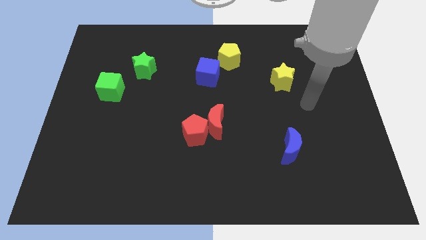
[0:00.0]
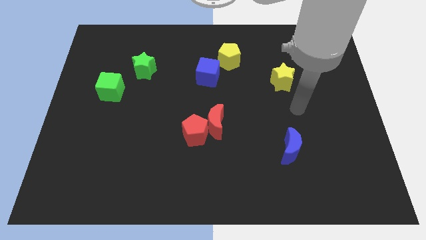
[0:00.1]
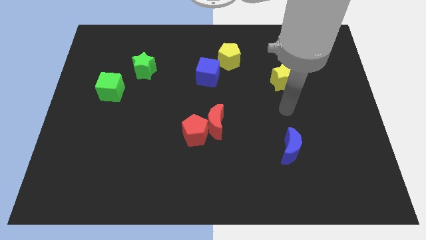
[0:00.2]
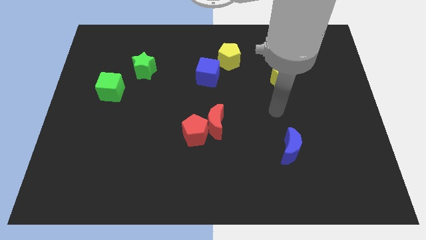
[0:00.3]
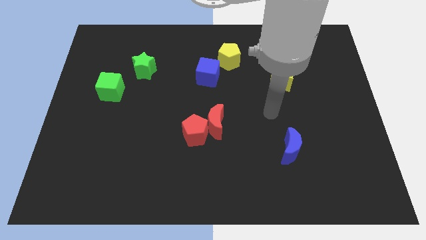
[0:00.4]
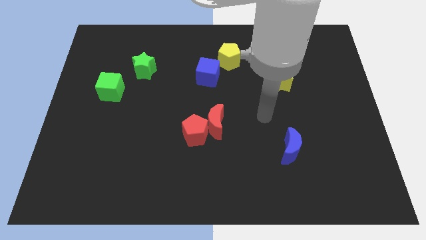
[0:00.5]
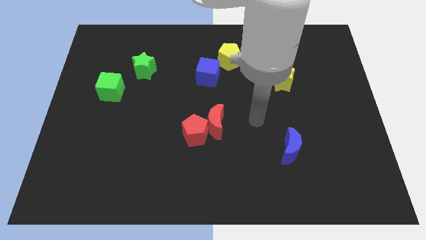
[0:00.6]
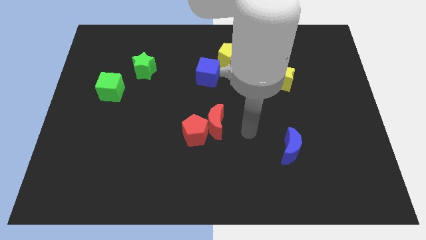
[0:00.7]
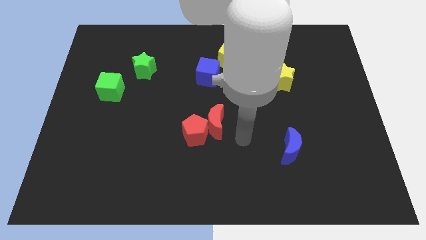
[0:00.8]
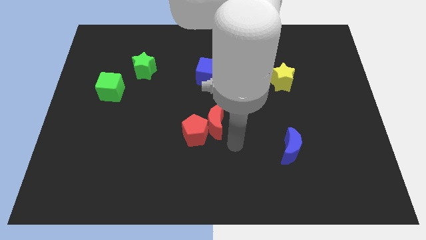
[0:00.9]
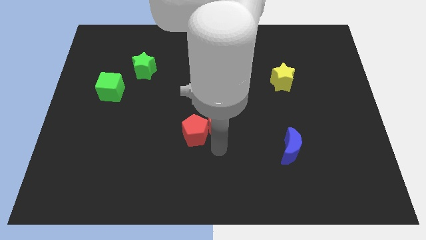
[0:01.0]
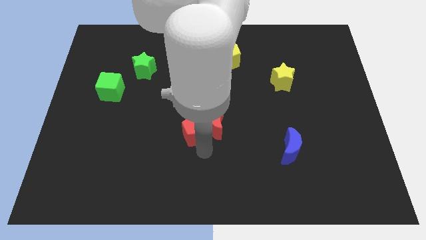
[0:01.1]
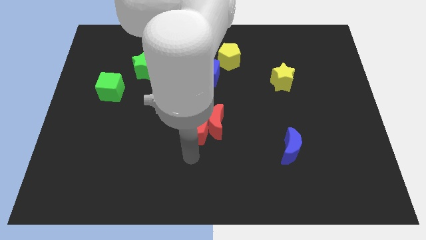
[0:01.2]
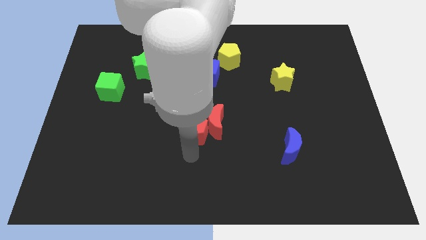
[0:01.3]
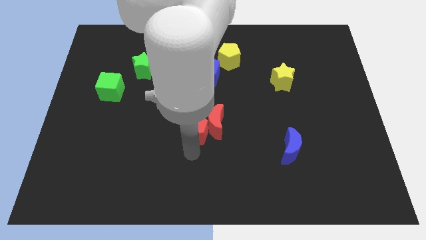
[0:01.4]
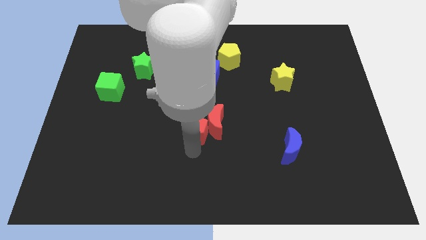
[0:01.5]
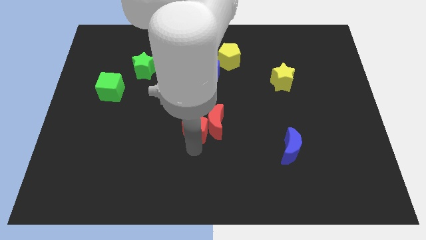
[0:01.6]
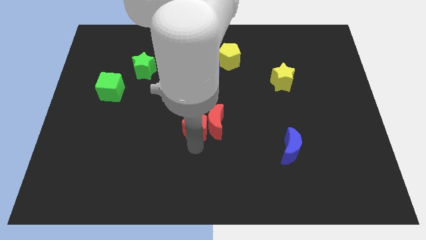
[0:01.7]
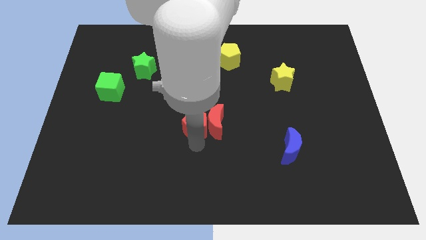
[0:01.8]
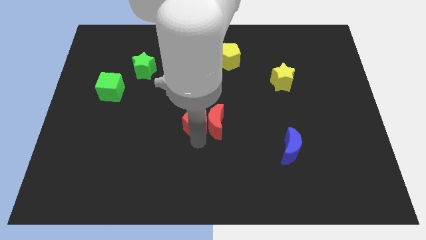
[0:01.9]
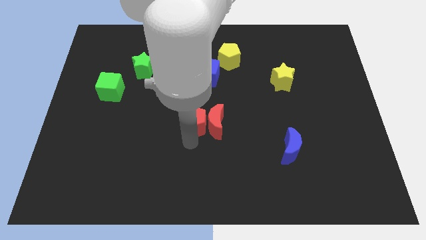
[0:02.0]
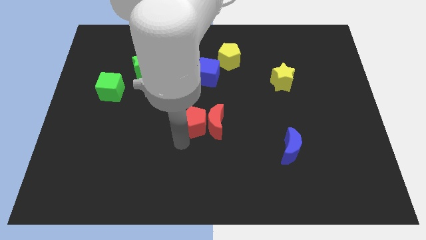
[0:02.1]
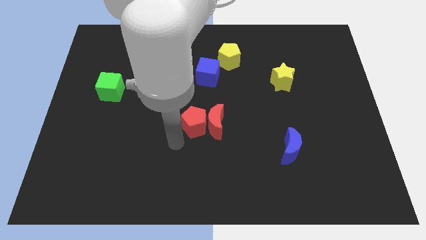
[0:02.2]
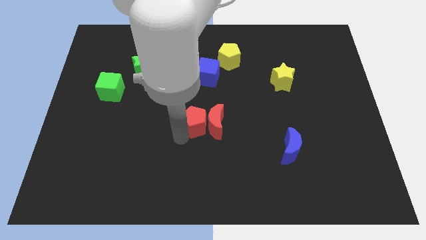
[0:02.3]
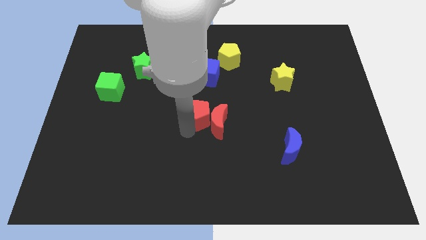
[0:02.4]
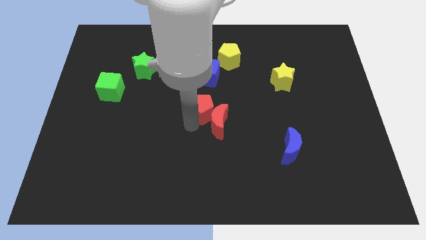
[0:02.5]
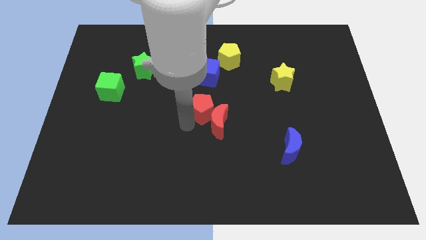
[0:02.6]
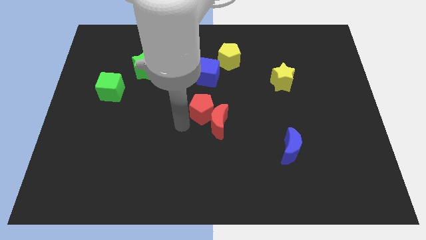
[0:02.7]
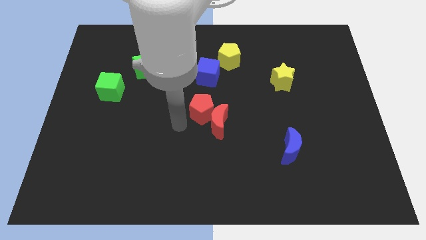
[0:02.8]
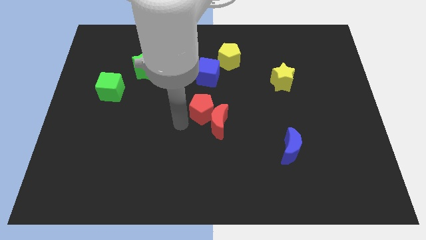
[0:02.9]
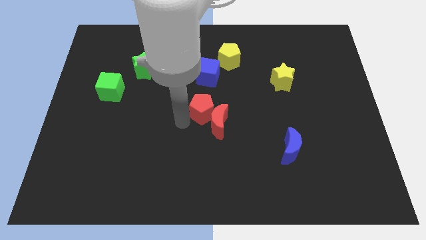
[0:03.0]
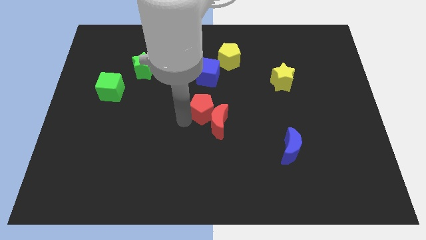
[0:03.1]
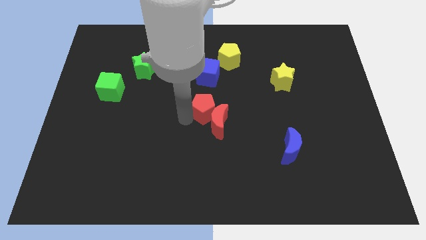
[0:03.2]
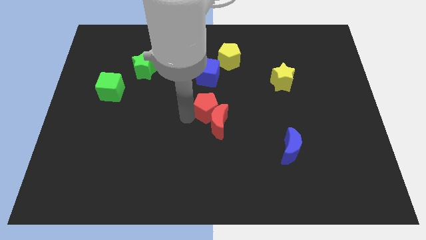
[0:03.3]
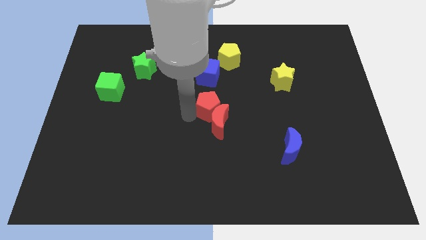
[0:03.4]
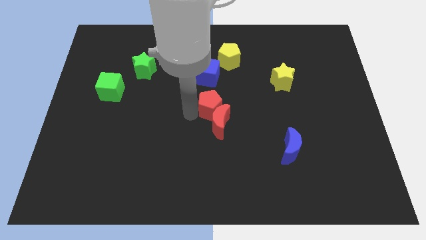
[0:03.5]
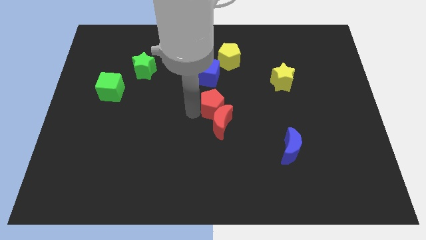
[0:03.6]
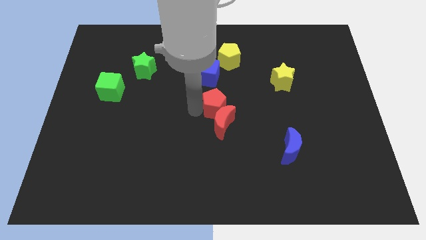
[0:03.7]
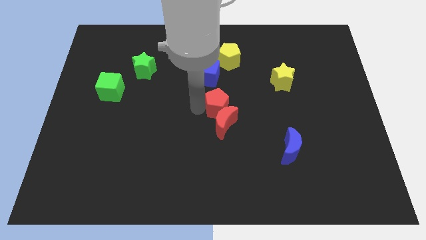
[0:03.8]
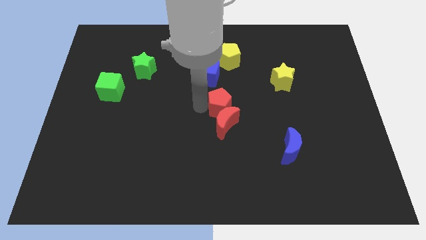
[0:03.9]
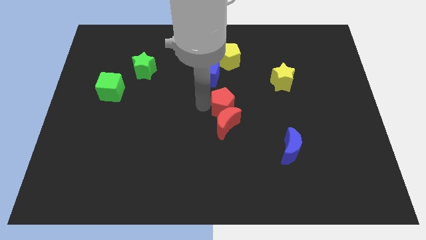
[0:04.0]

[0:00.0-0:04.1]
slide the red pentagon diagonally down and to the right of the blue cube

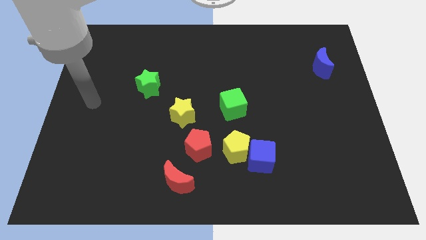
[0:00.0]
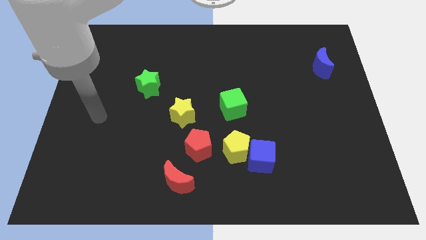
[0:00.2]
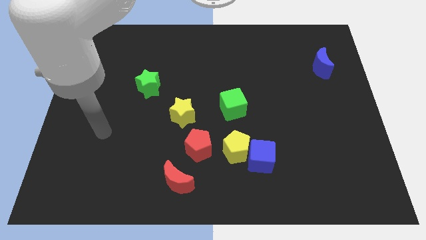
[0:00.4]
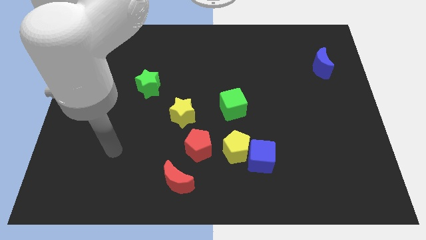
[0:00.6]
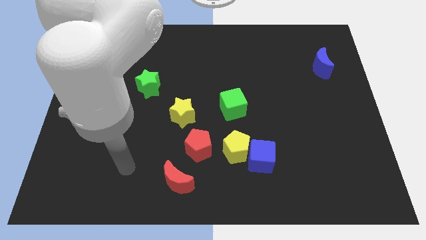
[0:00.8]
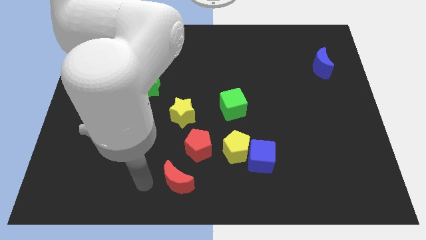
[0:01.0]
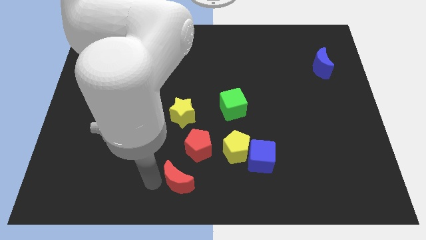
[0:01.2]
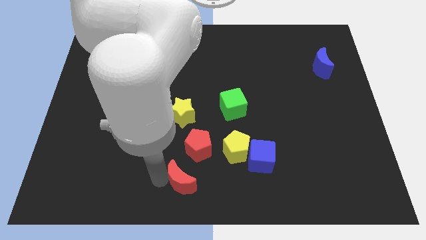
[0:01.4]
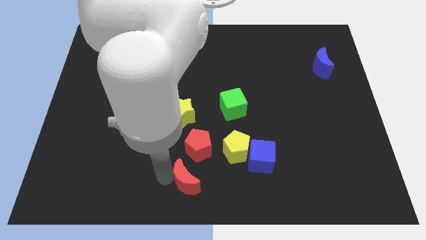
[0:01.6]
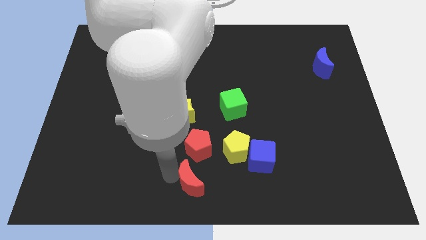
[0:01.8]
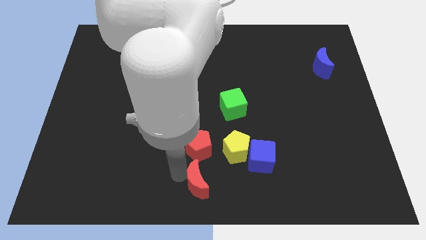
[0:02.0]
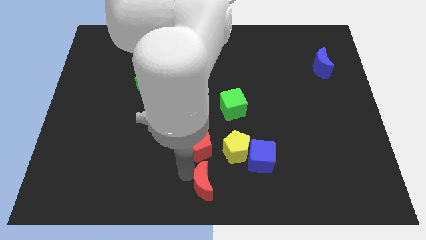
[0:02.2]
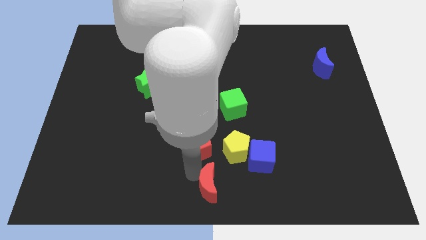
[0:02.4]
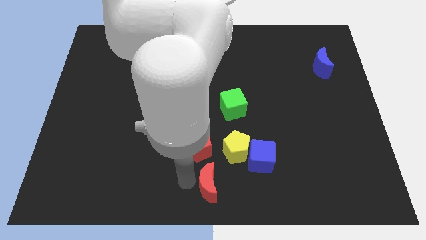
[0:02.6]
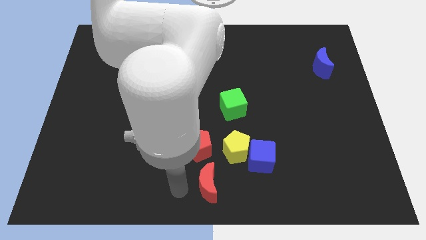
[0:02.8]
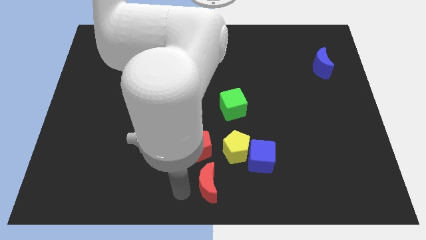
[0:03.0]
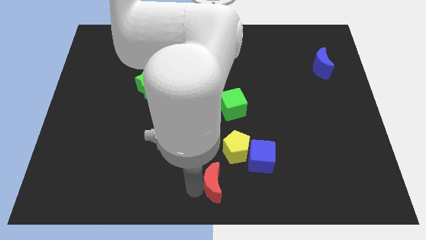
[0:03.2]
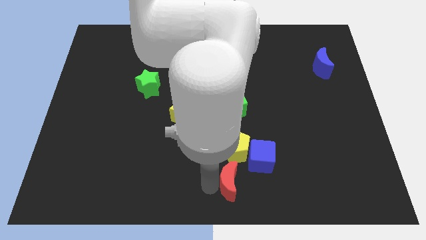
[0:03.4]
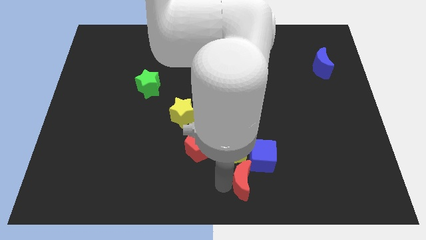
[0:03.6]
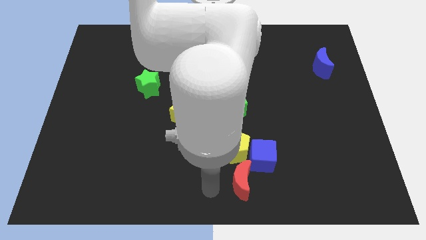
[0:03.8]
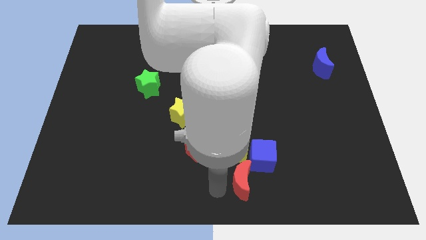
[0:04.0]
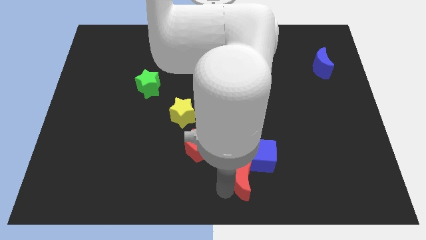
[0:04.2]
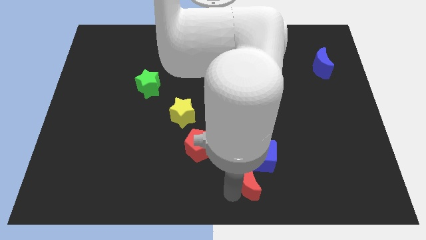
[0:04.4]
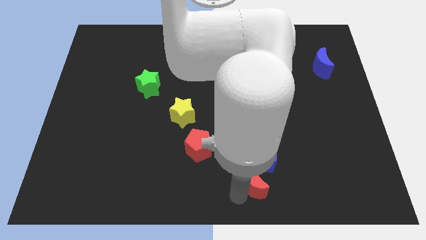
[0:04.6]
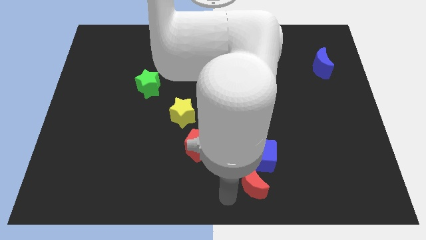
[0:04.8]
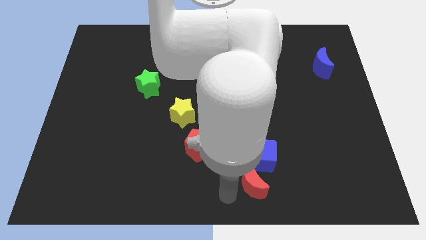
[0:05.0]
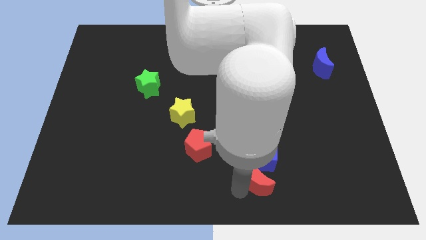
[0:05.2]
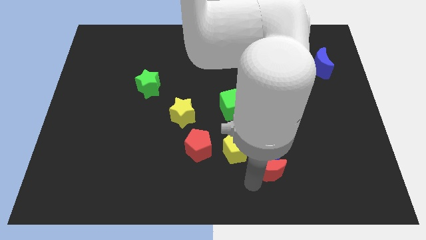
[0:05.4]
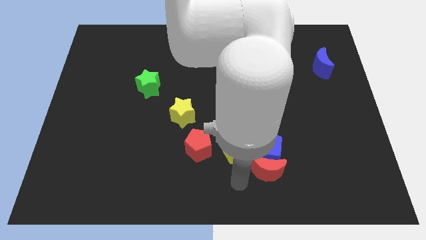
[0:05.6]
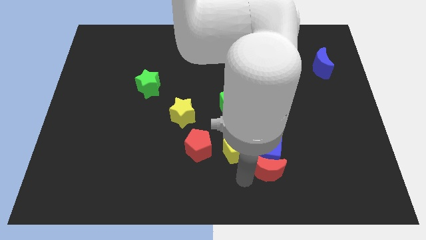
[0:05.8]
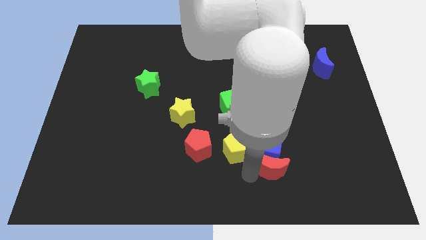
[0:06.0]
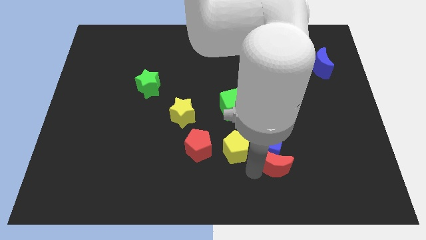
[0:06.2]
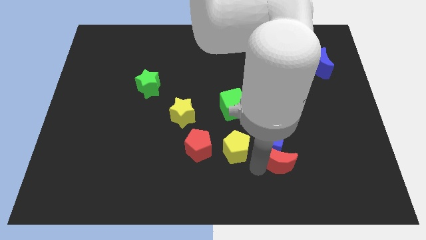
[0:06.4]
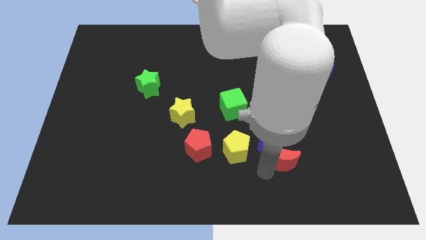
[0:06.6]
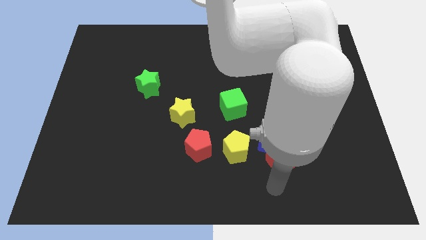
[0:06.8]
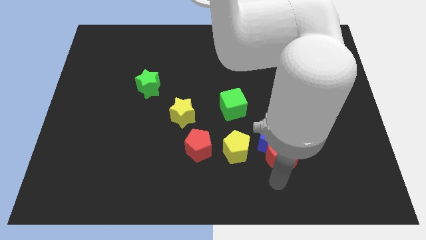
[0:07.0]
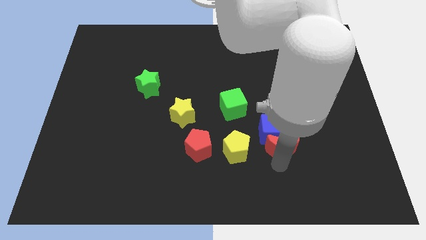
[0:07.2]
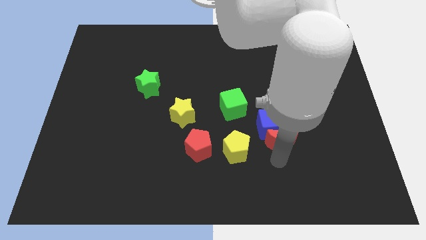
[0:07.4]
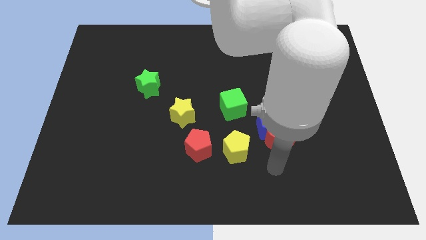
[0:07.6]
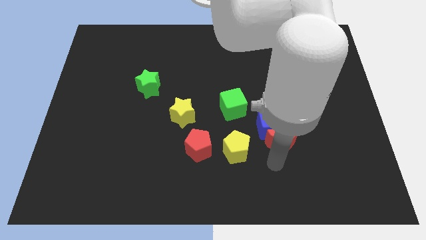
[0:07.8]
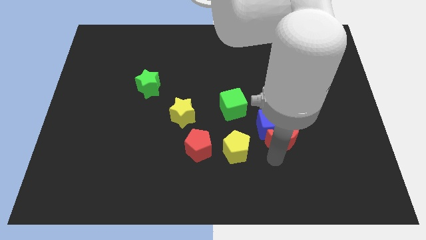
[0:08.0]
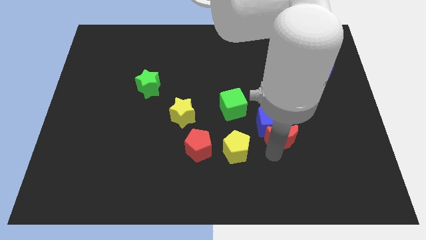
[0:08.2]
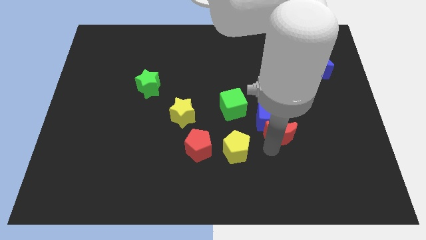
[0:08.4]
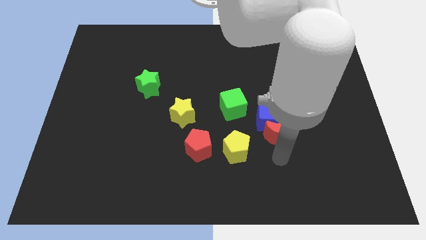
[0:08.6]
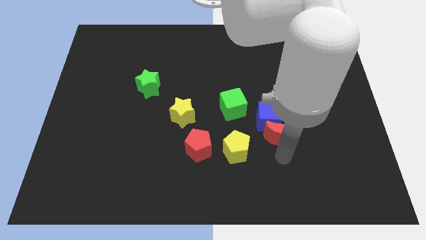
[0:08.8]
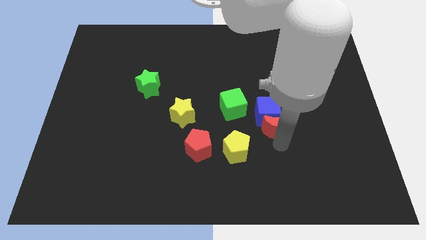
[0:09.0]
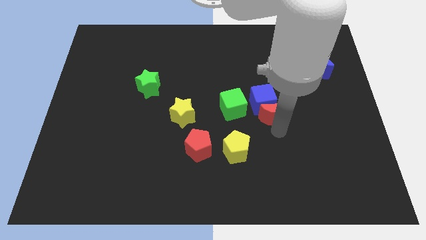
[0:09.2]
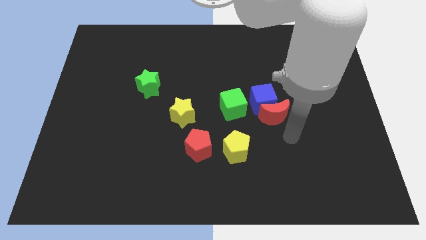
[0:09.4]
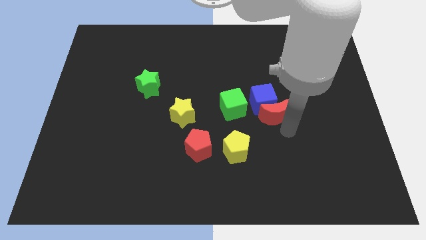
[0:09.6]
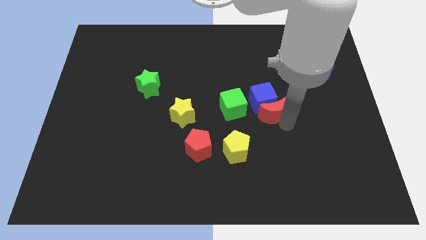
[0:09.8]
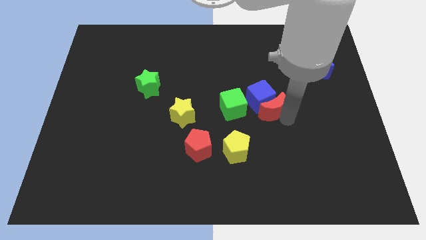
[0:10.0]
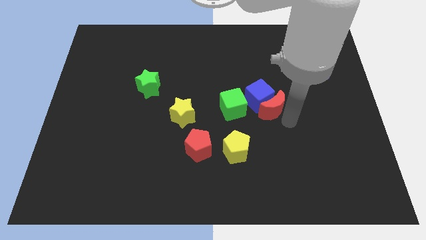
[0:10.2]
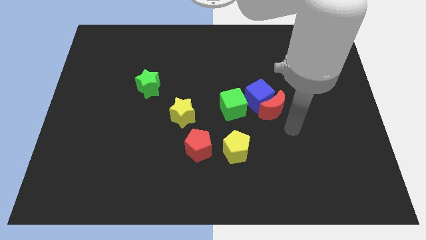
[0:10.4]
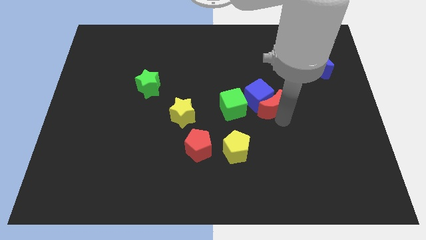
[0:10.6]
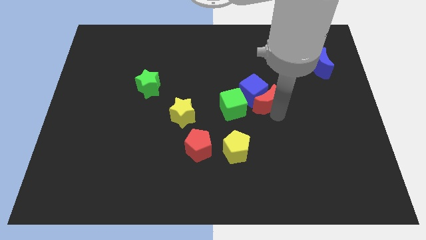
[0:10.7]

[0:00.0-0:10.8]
push the red moon to the top right of the green cube
